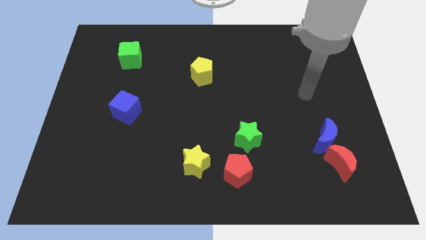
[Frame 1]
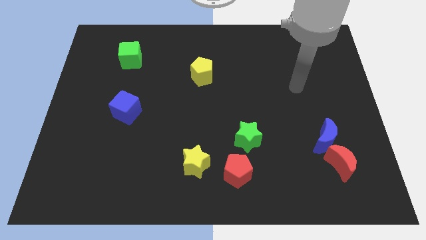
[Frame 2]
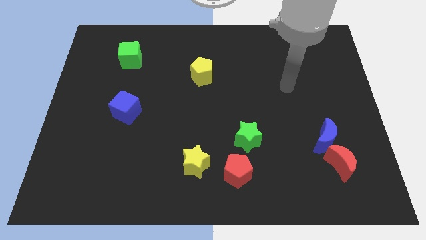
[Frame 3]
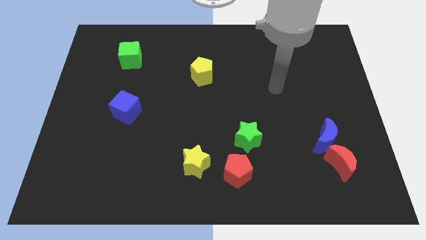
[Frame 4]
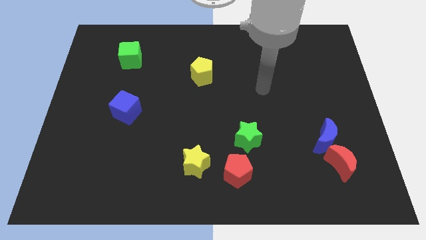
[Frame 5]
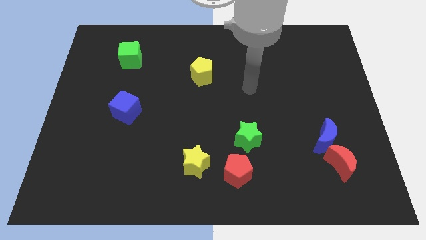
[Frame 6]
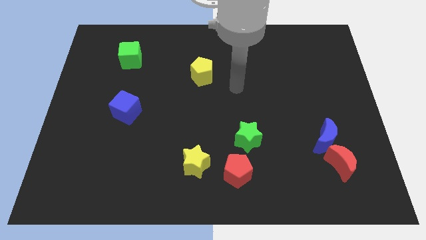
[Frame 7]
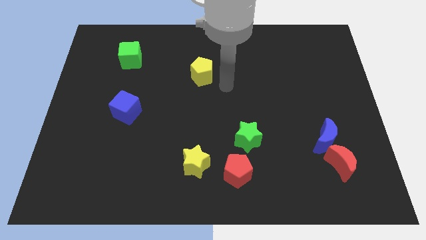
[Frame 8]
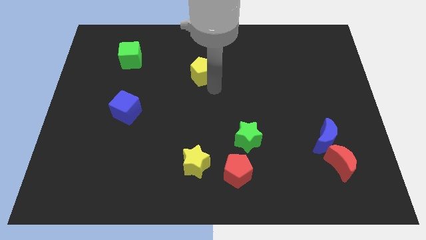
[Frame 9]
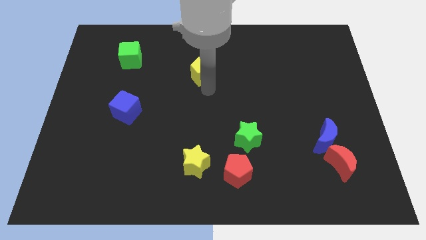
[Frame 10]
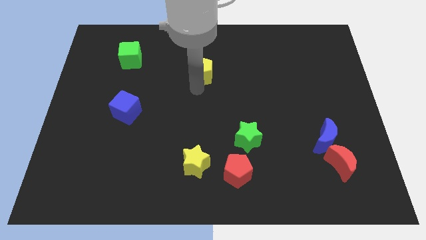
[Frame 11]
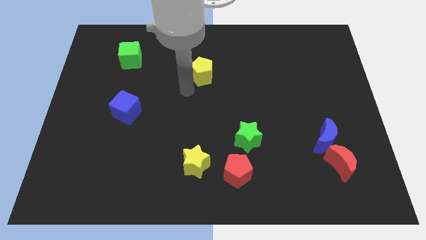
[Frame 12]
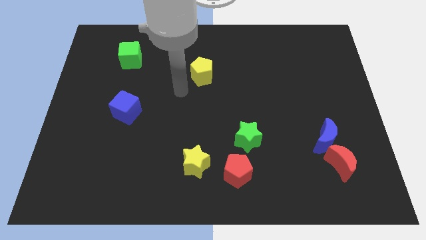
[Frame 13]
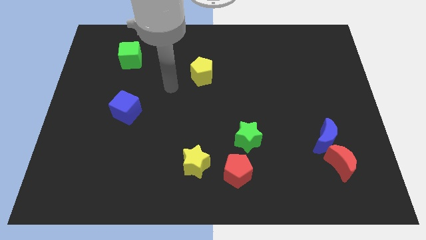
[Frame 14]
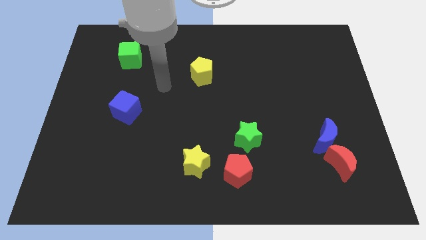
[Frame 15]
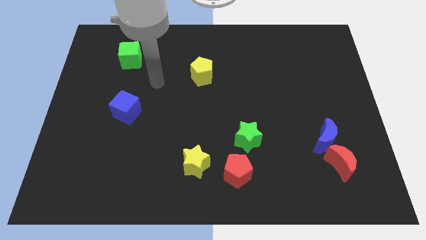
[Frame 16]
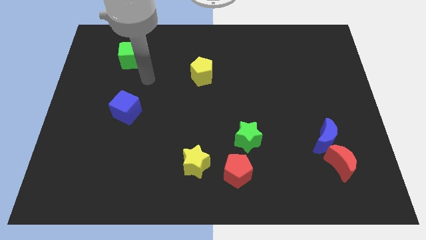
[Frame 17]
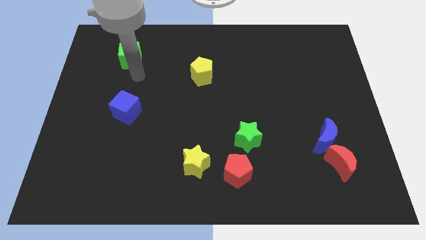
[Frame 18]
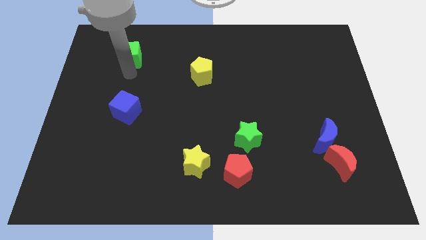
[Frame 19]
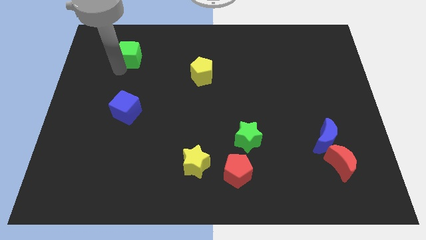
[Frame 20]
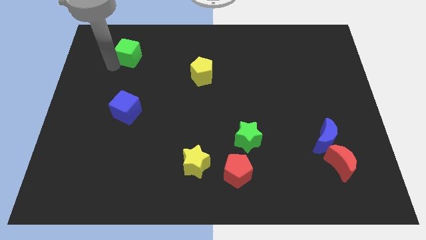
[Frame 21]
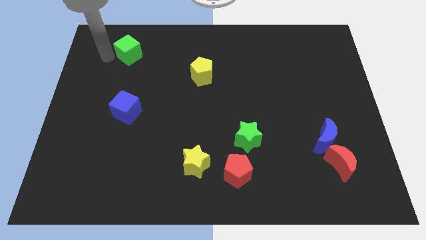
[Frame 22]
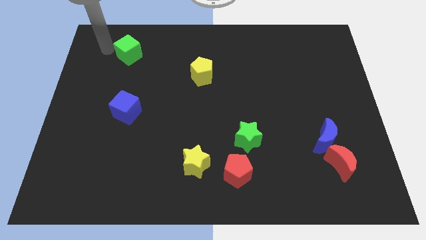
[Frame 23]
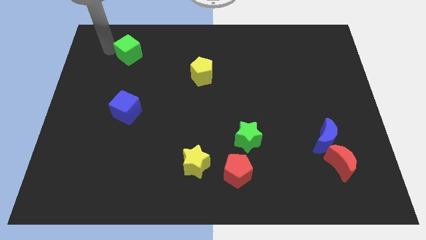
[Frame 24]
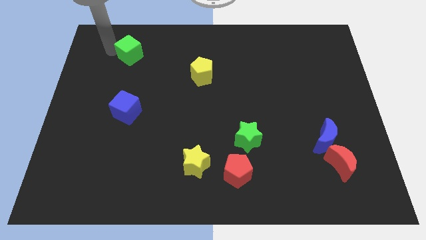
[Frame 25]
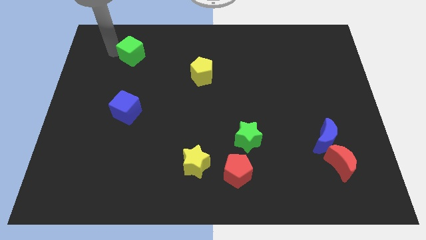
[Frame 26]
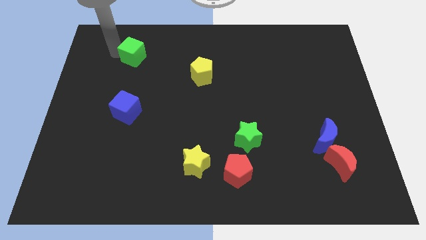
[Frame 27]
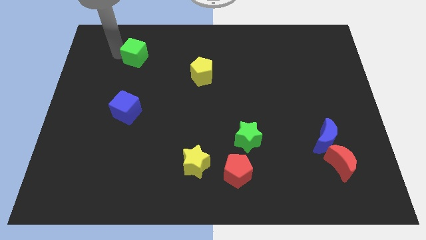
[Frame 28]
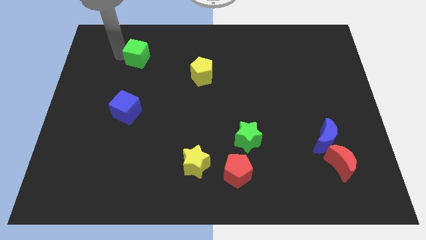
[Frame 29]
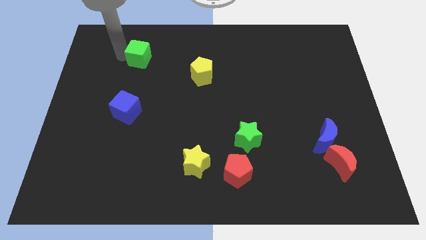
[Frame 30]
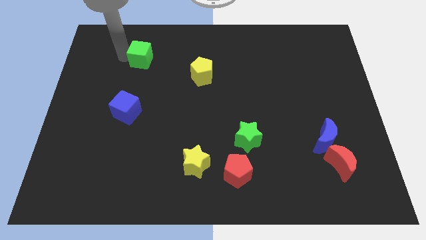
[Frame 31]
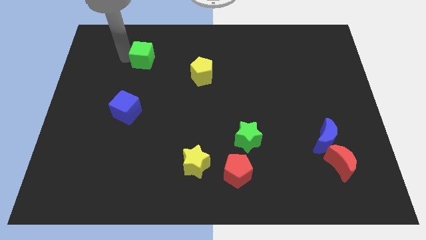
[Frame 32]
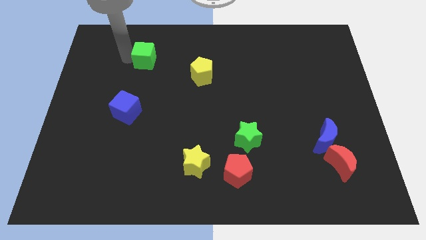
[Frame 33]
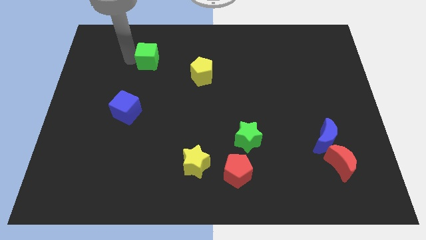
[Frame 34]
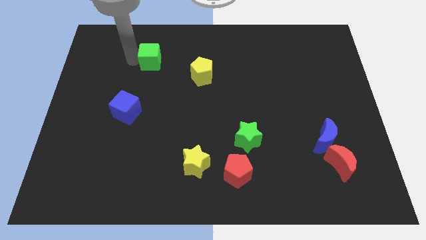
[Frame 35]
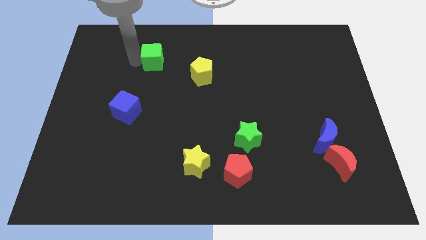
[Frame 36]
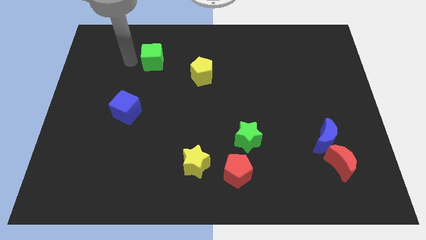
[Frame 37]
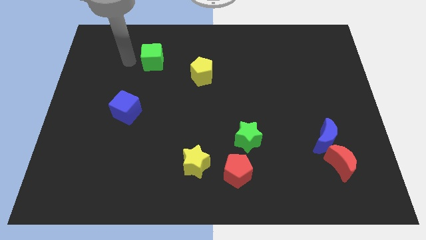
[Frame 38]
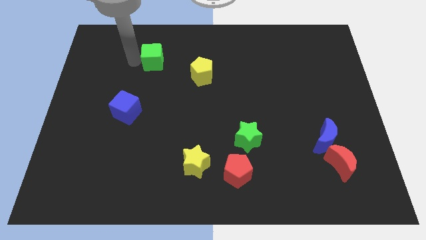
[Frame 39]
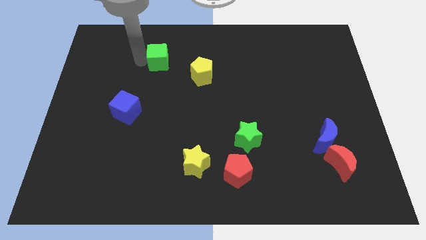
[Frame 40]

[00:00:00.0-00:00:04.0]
slide the green cube to the right a little

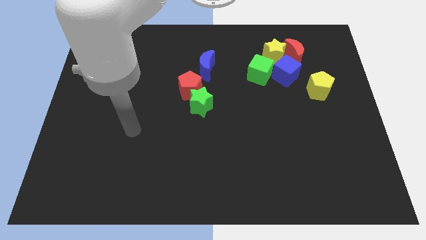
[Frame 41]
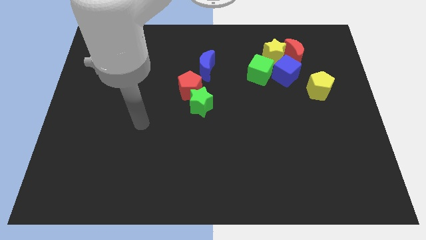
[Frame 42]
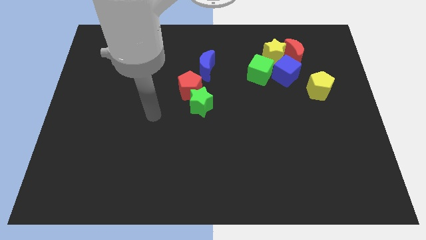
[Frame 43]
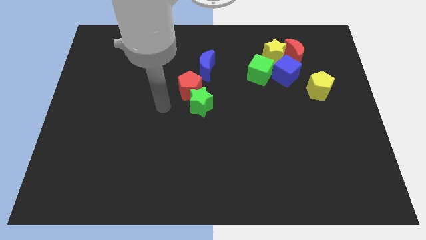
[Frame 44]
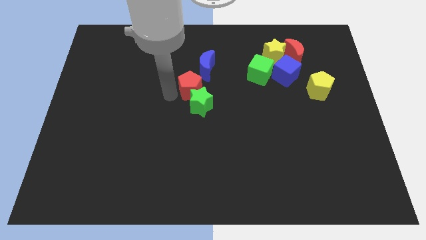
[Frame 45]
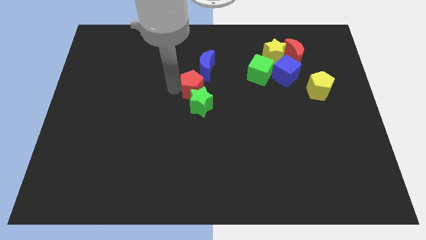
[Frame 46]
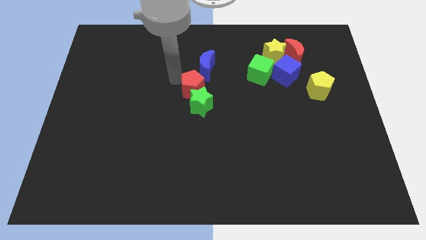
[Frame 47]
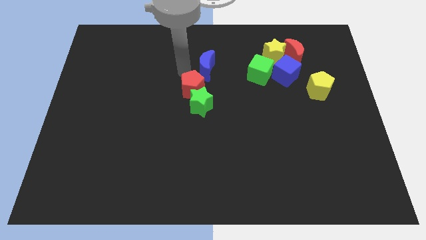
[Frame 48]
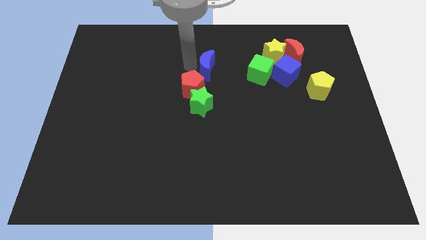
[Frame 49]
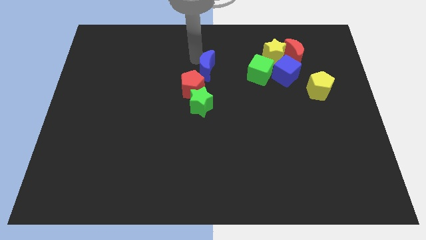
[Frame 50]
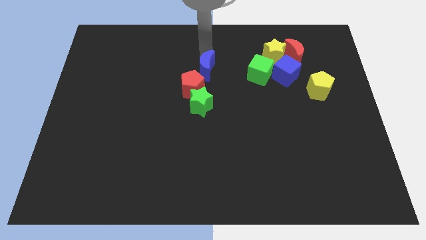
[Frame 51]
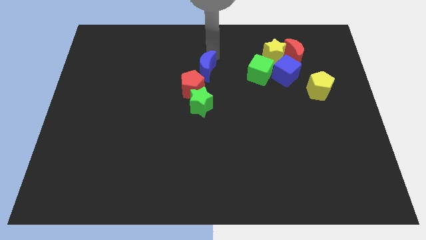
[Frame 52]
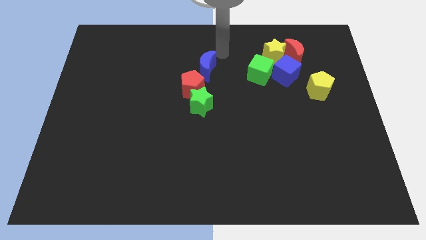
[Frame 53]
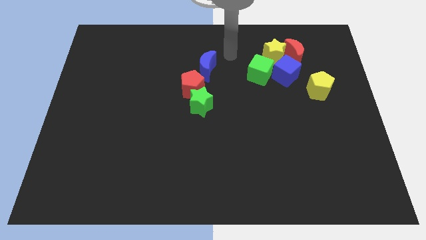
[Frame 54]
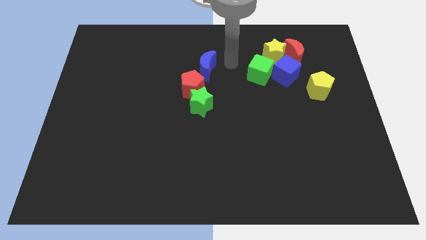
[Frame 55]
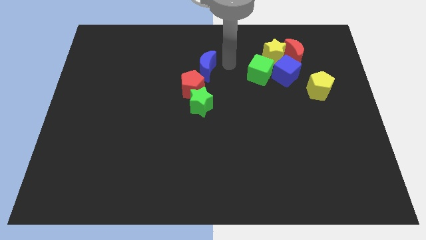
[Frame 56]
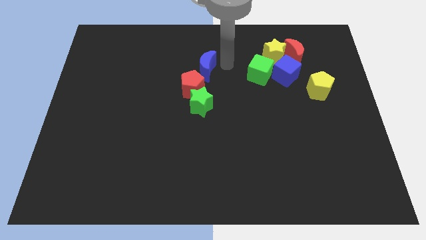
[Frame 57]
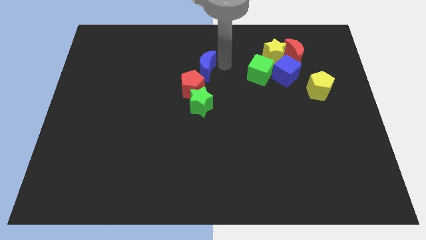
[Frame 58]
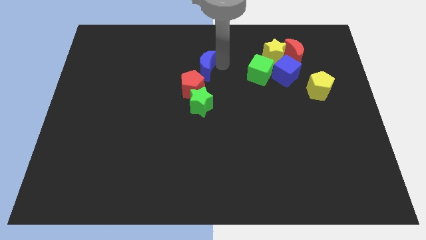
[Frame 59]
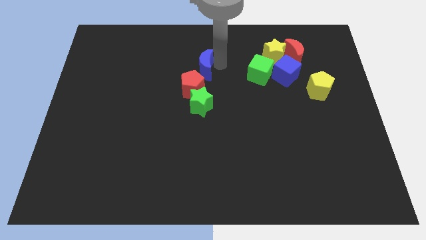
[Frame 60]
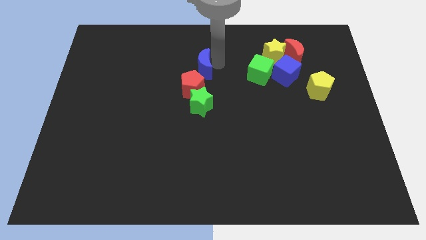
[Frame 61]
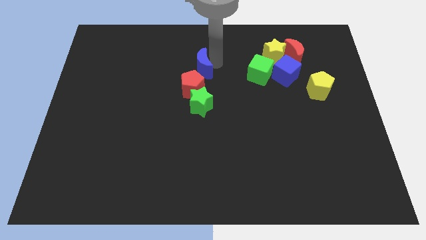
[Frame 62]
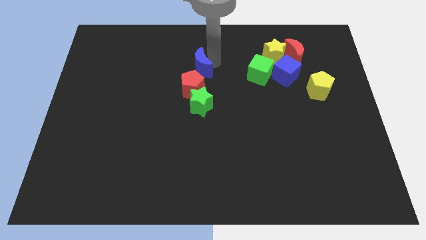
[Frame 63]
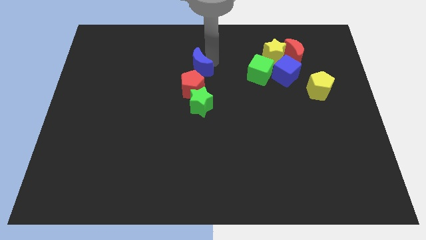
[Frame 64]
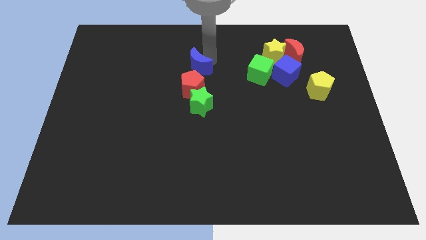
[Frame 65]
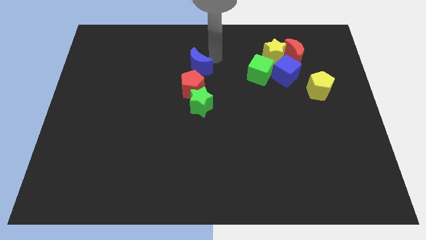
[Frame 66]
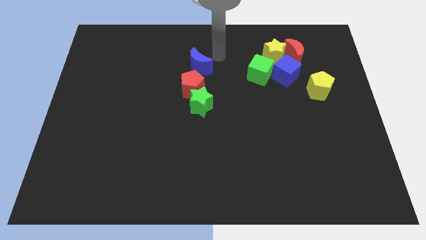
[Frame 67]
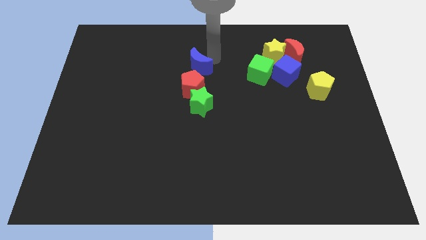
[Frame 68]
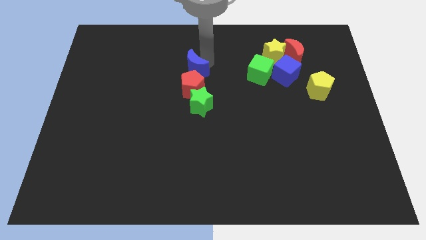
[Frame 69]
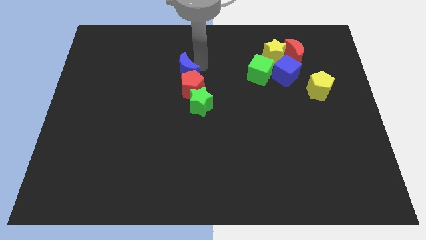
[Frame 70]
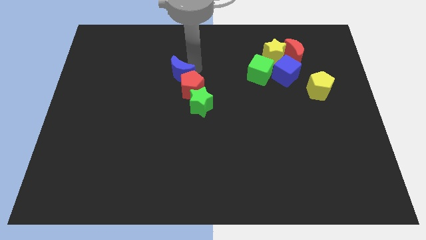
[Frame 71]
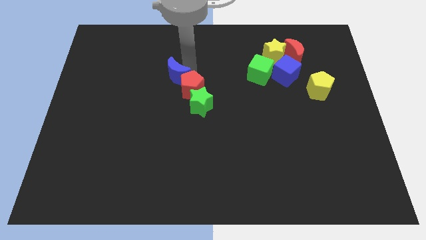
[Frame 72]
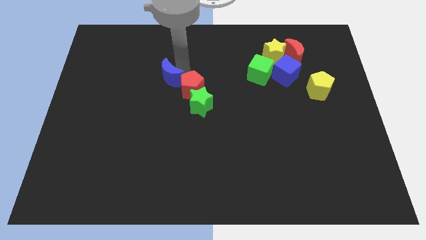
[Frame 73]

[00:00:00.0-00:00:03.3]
slightly move the blue moon diagonally downwards and left

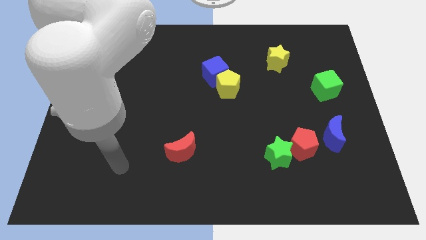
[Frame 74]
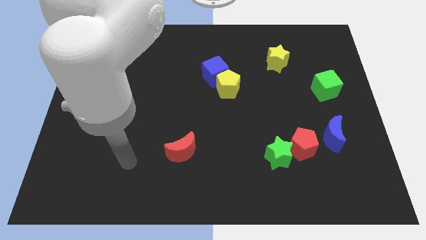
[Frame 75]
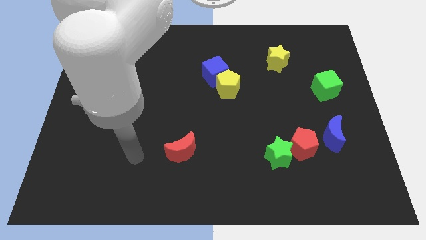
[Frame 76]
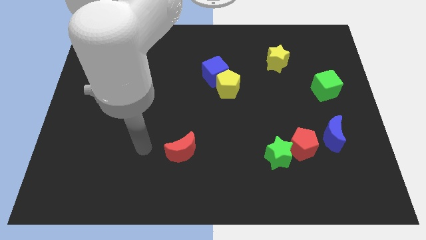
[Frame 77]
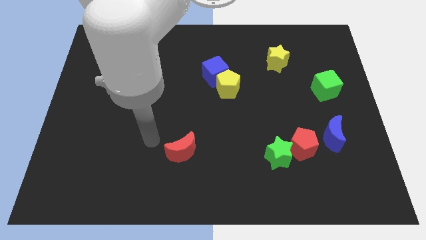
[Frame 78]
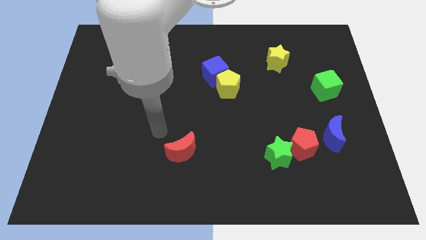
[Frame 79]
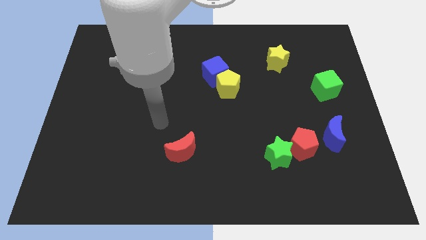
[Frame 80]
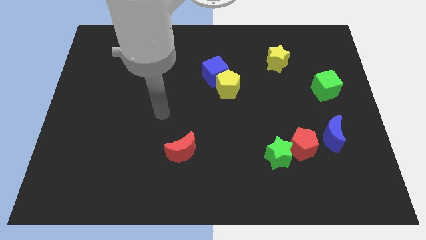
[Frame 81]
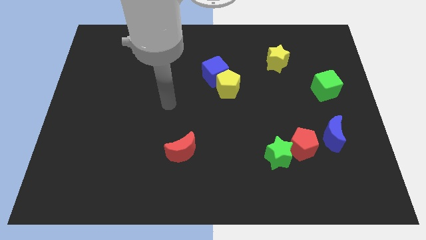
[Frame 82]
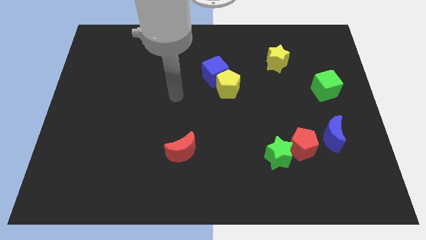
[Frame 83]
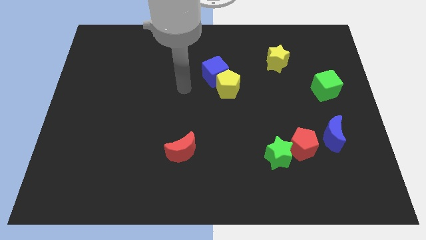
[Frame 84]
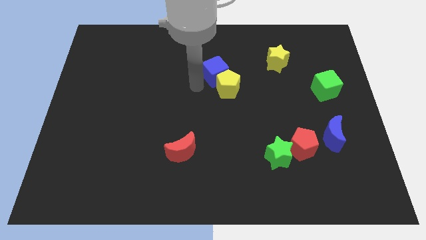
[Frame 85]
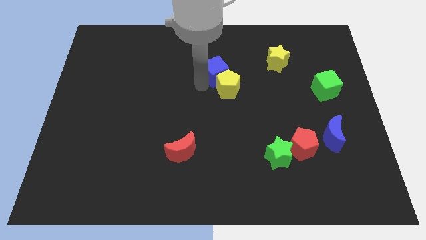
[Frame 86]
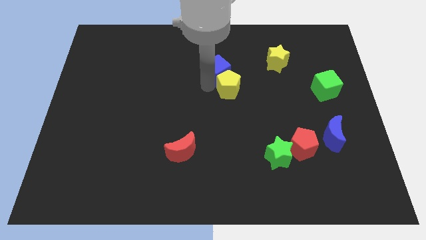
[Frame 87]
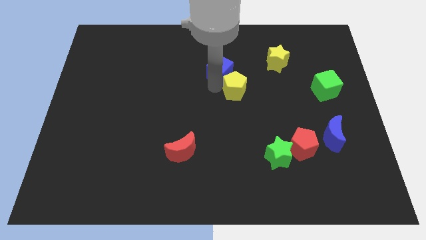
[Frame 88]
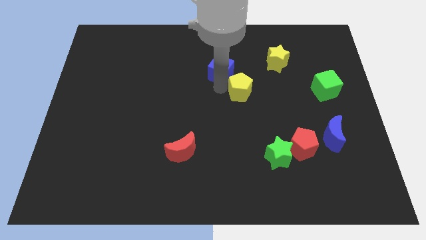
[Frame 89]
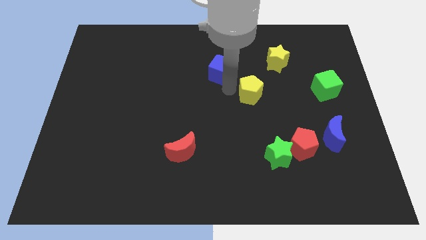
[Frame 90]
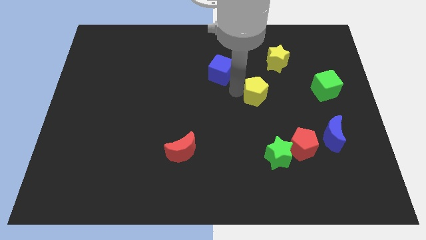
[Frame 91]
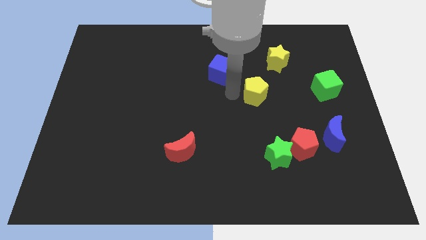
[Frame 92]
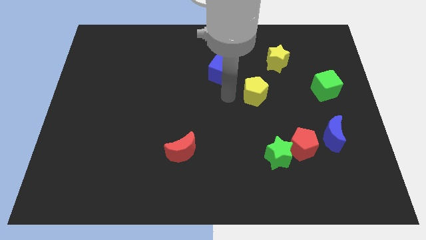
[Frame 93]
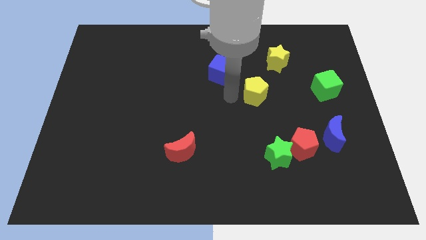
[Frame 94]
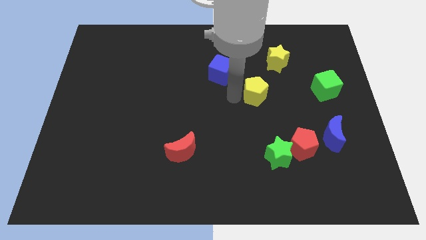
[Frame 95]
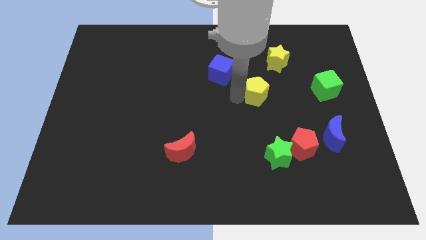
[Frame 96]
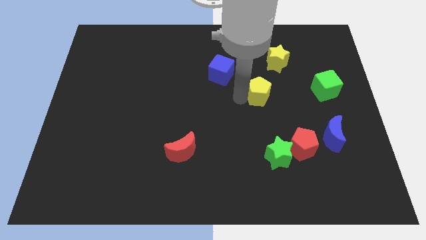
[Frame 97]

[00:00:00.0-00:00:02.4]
move the yellow pentagon a little to the right
